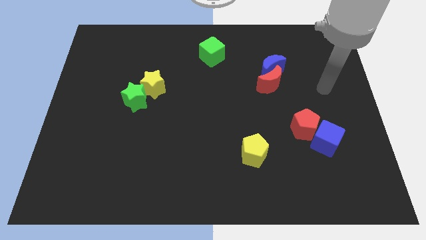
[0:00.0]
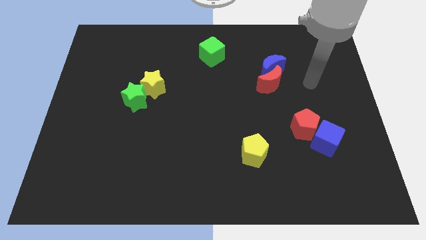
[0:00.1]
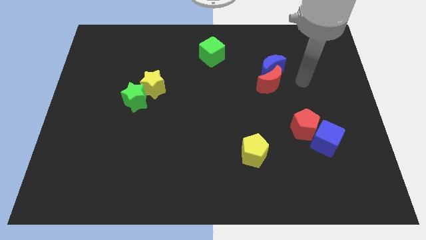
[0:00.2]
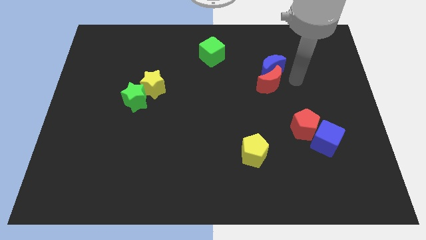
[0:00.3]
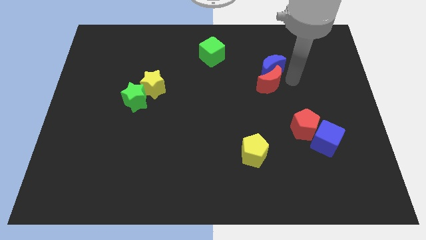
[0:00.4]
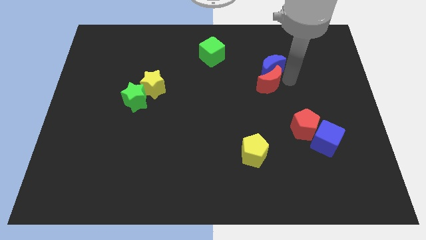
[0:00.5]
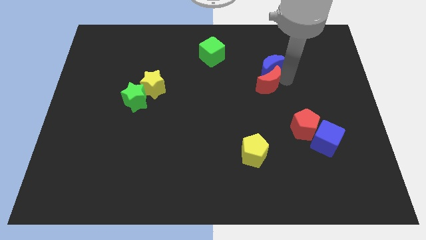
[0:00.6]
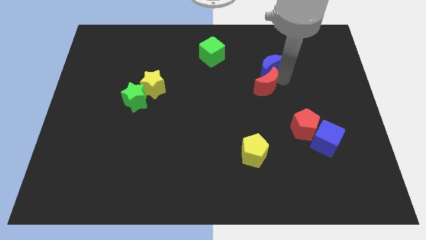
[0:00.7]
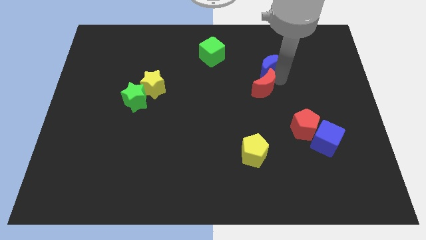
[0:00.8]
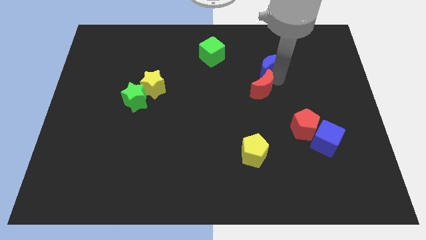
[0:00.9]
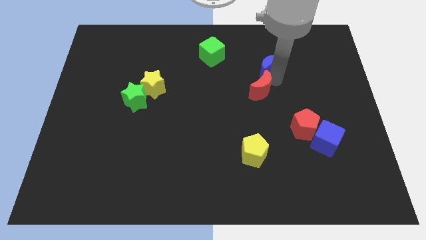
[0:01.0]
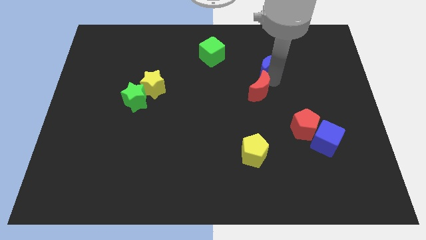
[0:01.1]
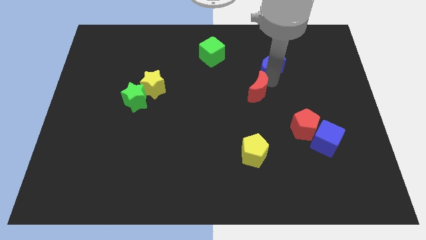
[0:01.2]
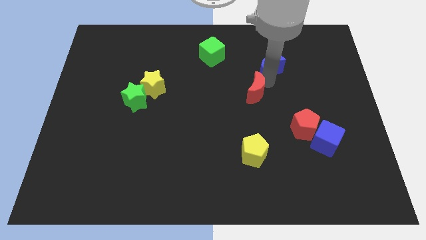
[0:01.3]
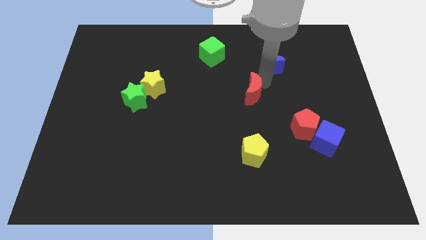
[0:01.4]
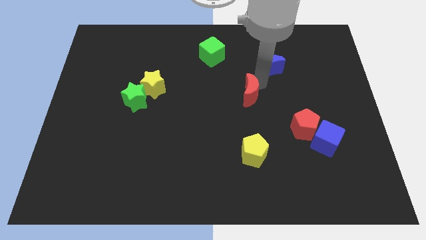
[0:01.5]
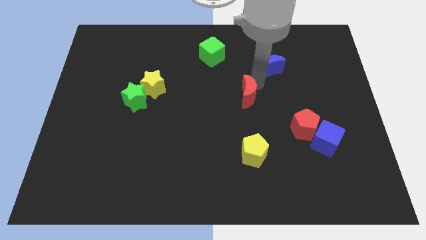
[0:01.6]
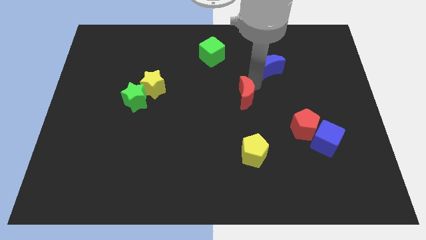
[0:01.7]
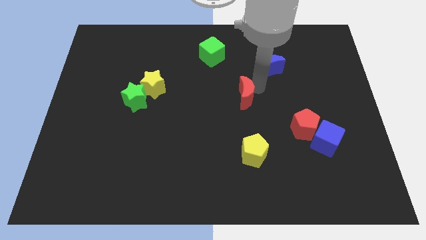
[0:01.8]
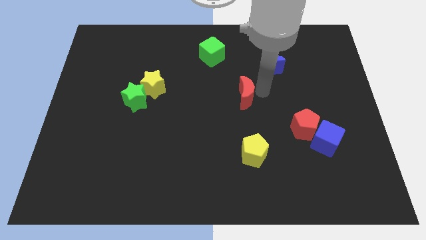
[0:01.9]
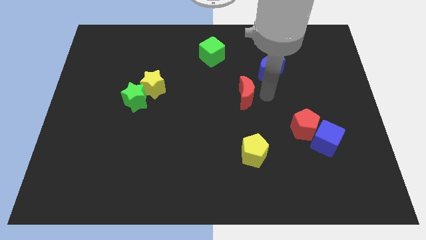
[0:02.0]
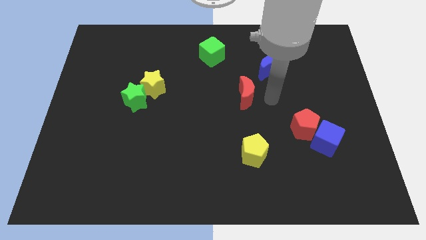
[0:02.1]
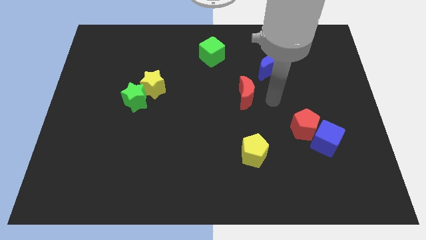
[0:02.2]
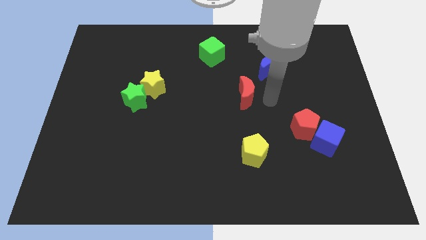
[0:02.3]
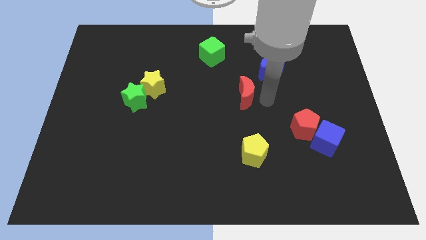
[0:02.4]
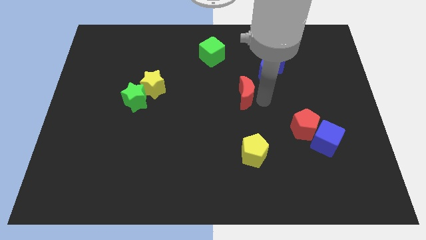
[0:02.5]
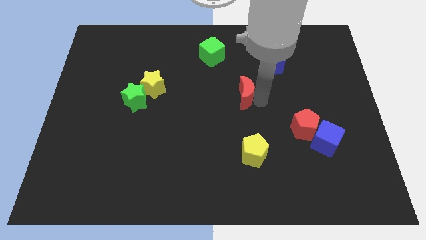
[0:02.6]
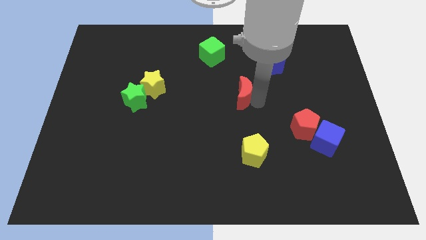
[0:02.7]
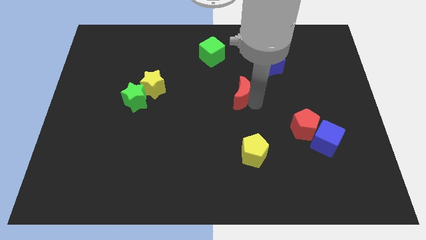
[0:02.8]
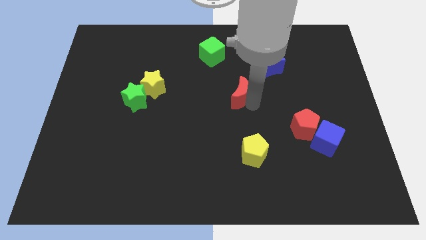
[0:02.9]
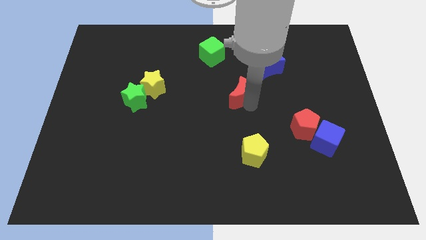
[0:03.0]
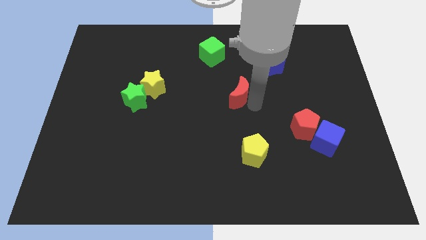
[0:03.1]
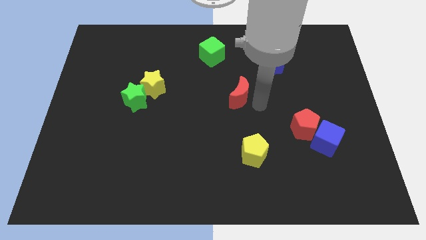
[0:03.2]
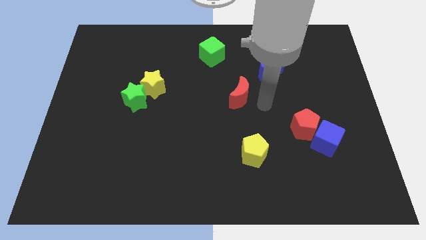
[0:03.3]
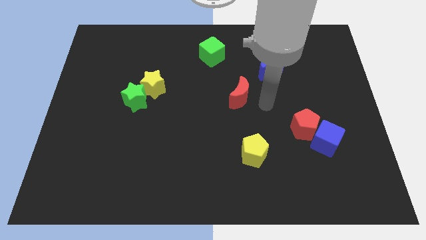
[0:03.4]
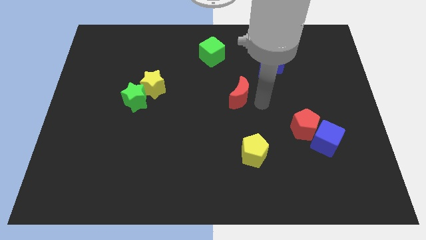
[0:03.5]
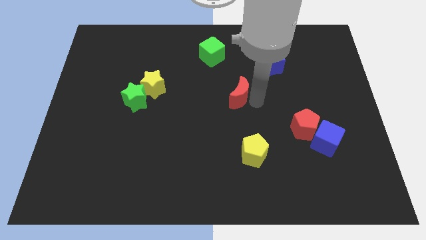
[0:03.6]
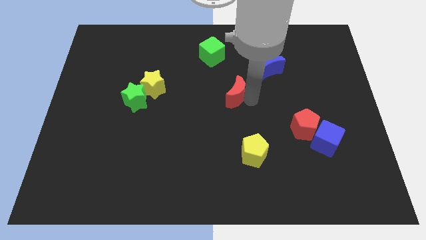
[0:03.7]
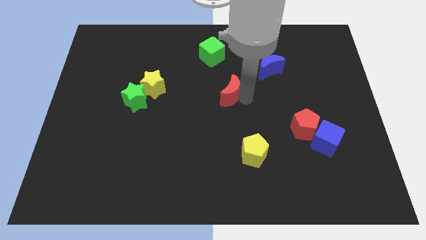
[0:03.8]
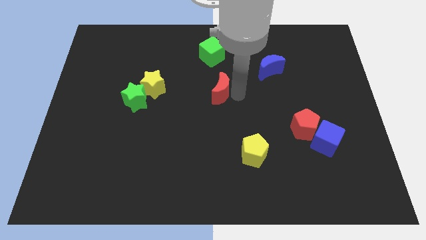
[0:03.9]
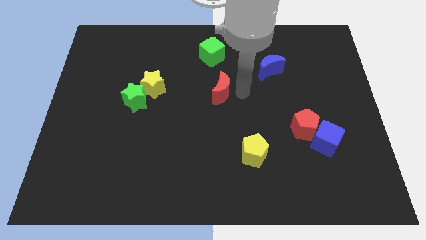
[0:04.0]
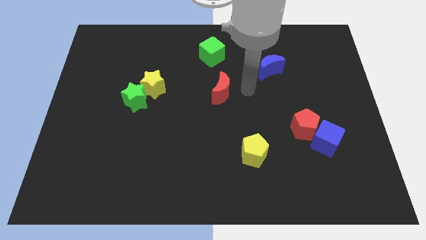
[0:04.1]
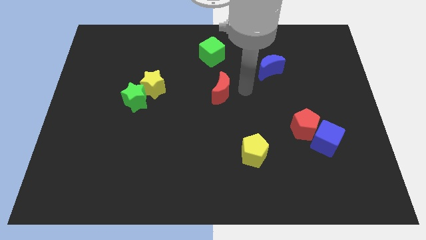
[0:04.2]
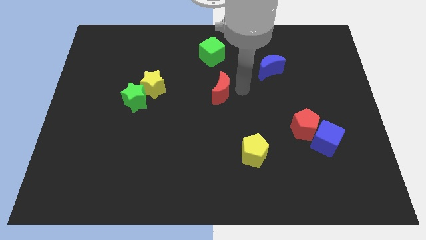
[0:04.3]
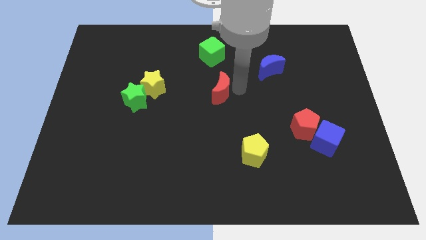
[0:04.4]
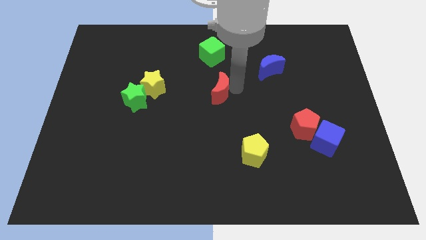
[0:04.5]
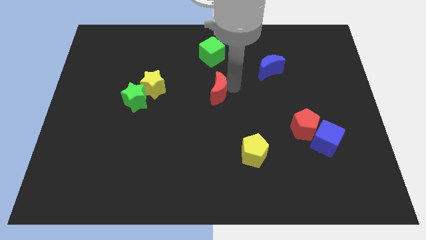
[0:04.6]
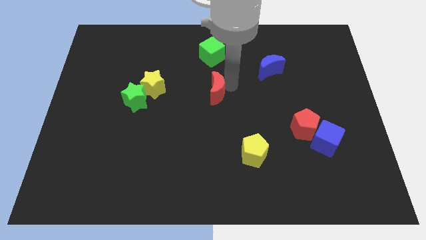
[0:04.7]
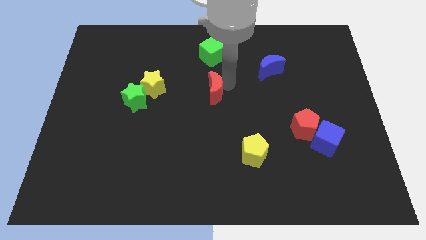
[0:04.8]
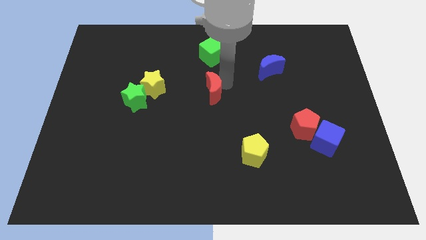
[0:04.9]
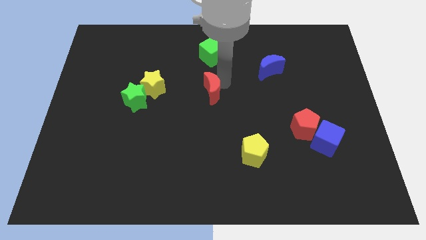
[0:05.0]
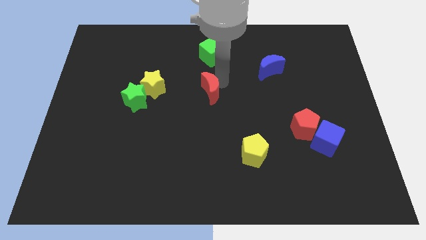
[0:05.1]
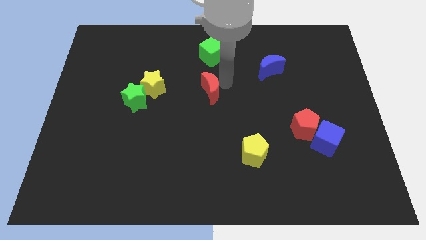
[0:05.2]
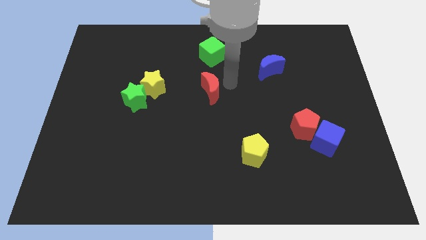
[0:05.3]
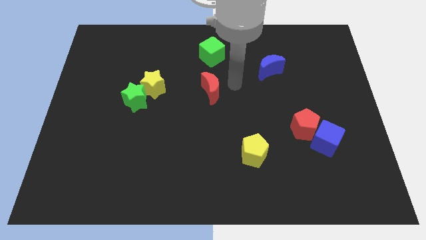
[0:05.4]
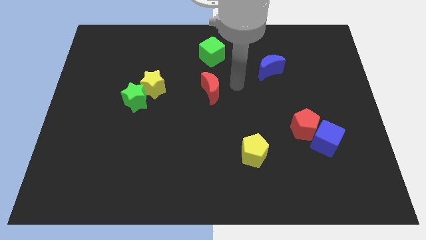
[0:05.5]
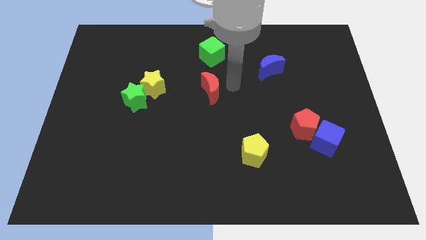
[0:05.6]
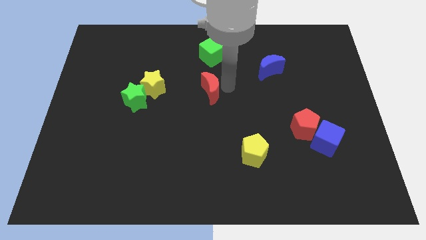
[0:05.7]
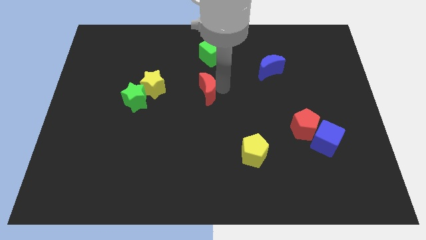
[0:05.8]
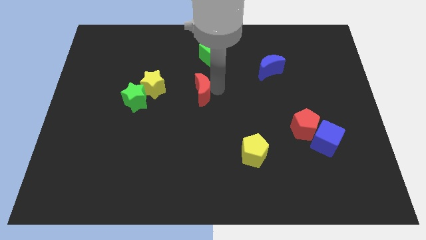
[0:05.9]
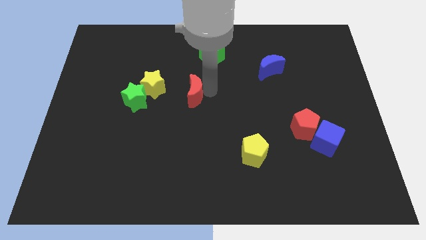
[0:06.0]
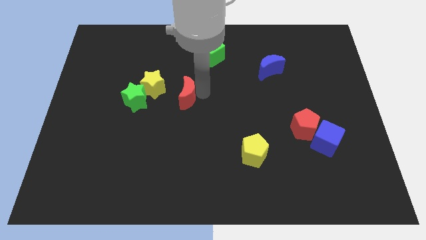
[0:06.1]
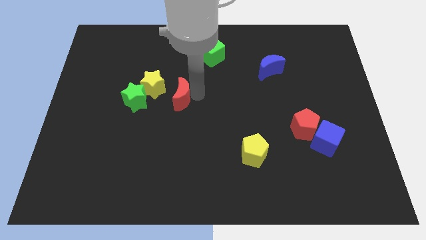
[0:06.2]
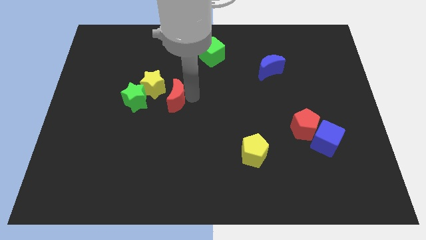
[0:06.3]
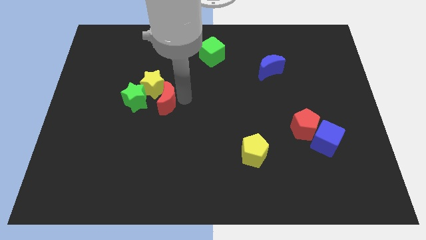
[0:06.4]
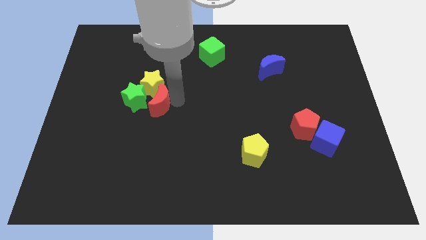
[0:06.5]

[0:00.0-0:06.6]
slide the red moon towards the green star

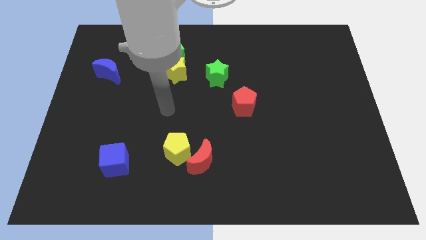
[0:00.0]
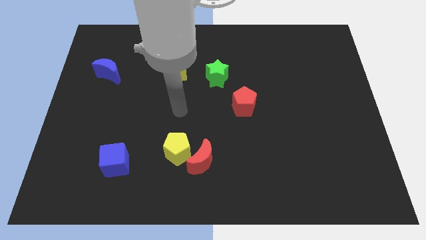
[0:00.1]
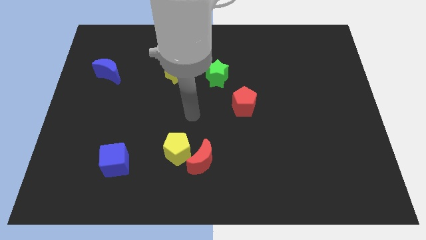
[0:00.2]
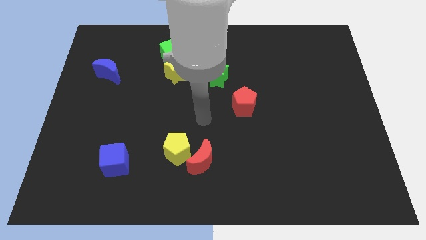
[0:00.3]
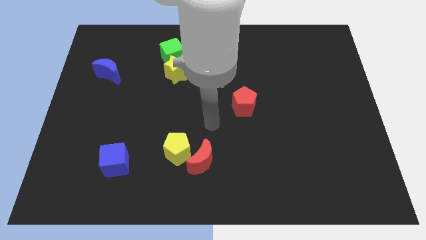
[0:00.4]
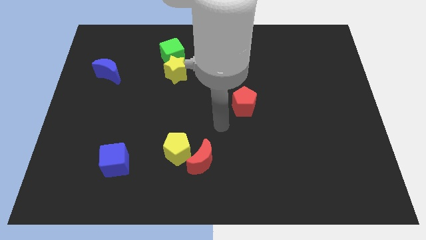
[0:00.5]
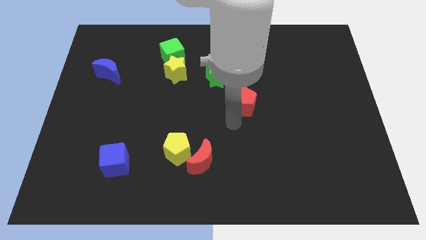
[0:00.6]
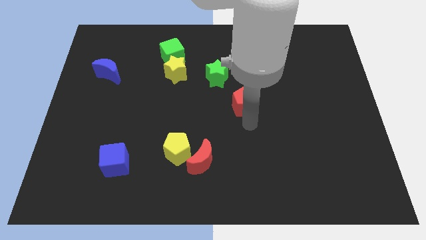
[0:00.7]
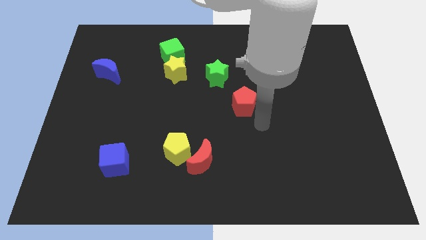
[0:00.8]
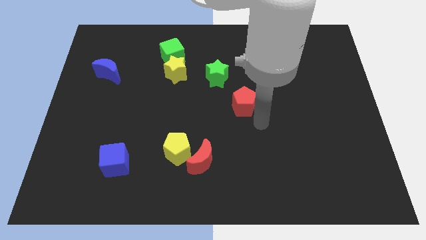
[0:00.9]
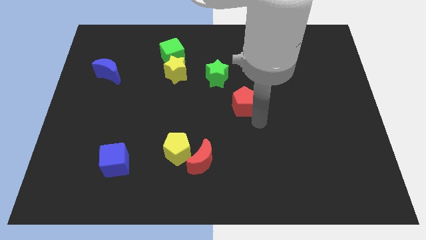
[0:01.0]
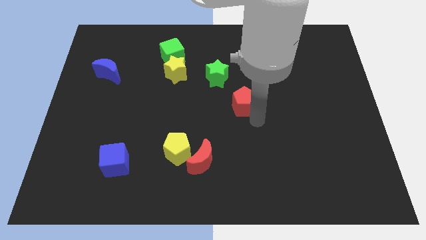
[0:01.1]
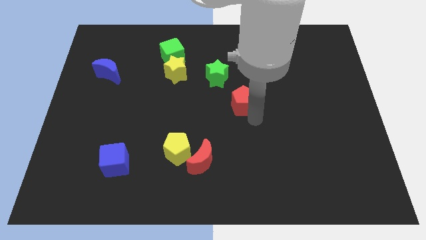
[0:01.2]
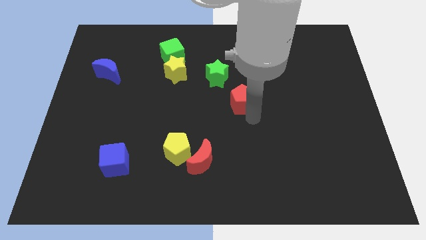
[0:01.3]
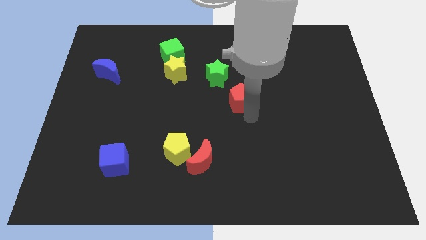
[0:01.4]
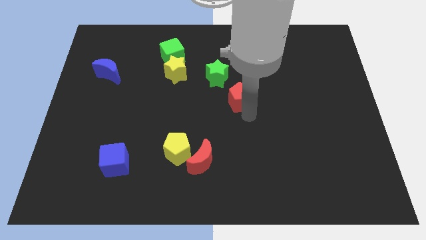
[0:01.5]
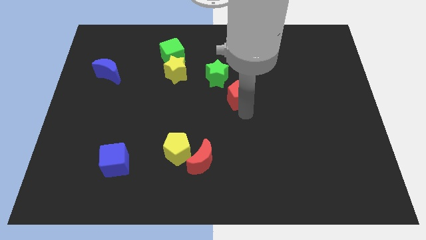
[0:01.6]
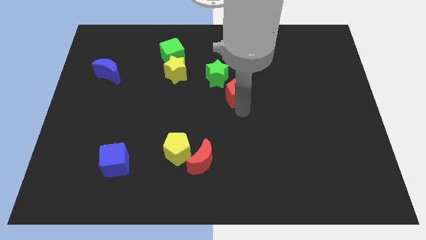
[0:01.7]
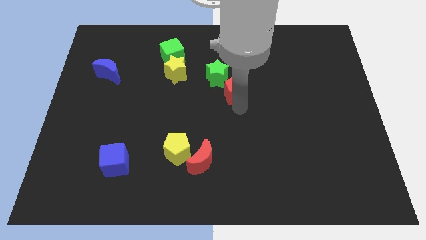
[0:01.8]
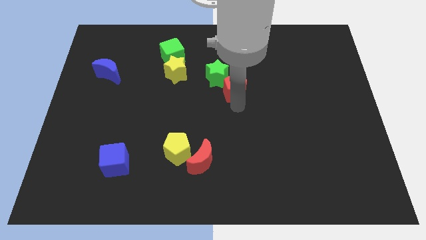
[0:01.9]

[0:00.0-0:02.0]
put the red pentagon next to the green star
